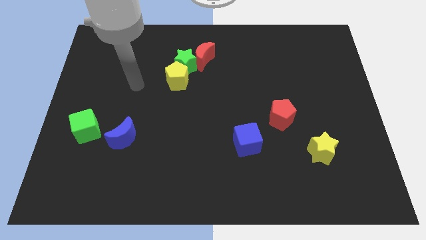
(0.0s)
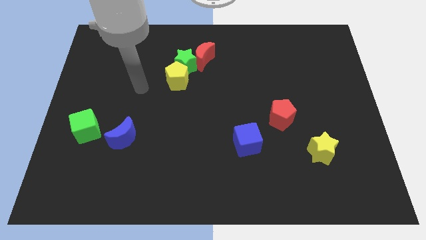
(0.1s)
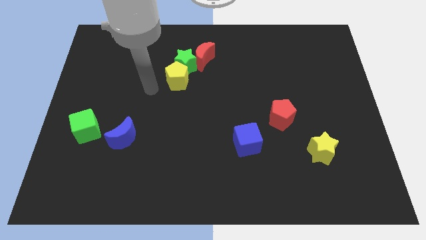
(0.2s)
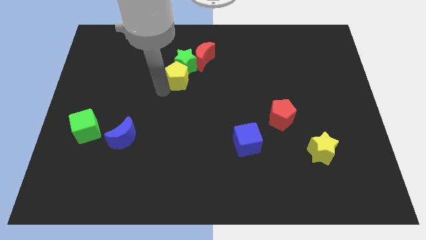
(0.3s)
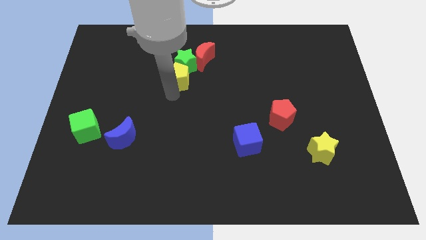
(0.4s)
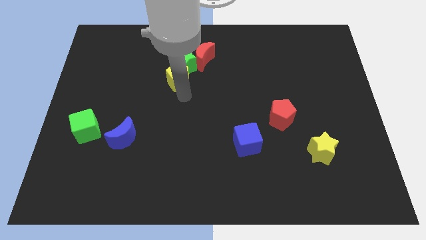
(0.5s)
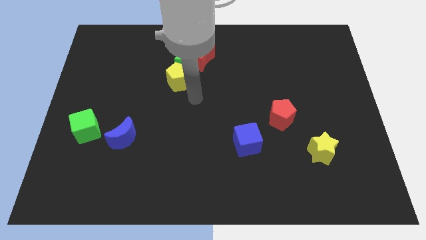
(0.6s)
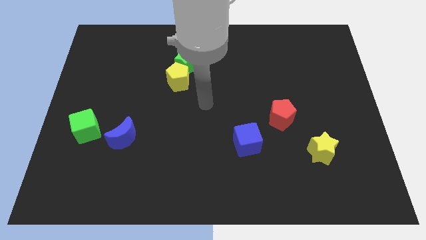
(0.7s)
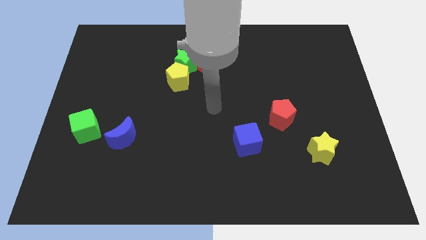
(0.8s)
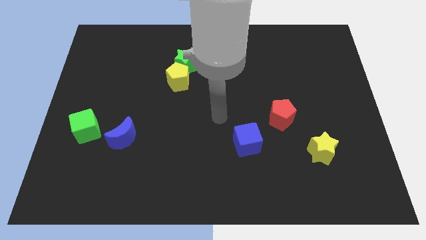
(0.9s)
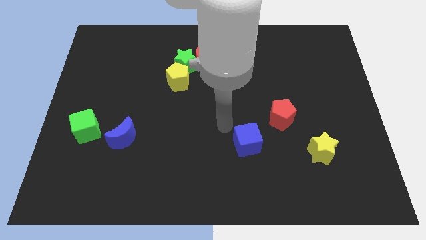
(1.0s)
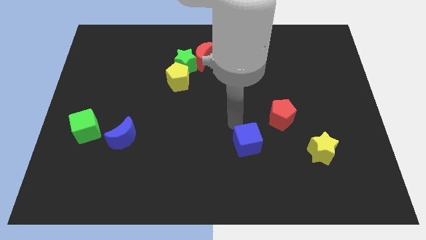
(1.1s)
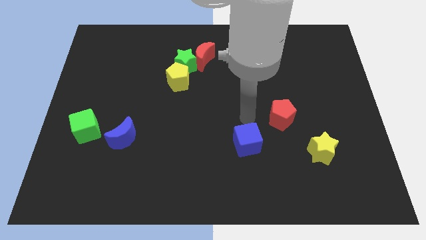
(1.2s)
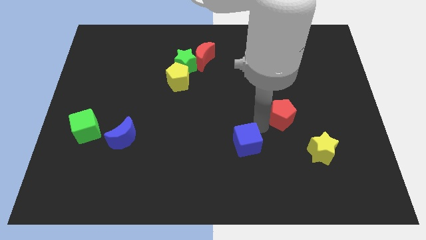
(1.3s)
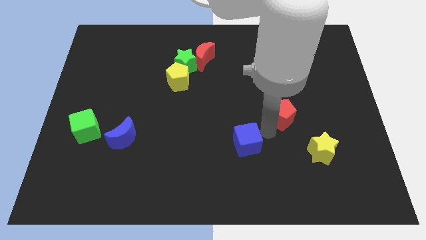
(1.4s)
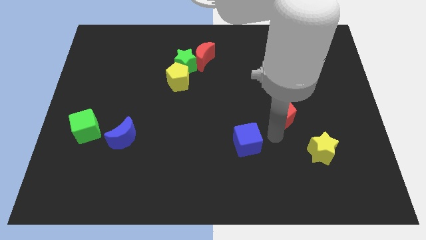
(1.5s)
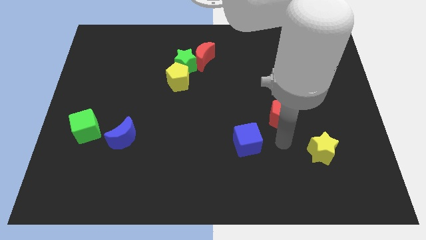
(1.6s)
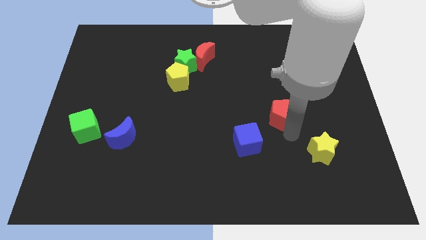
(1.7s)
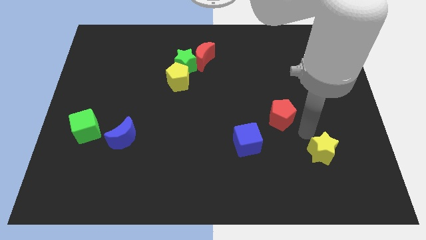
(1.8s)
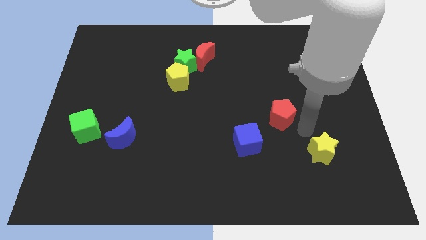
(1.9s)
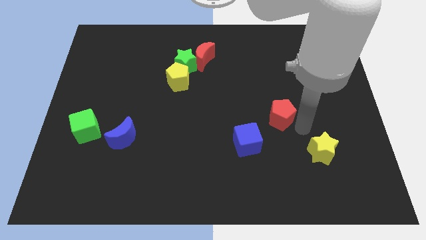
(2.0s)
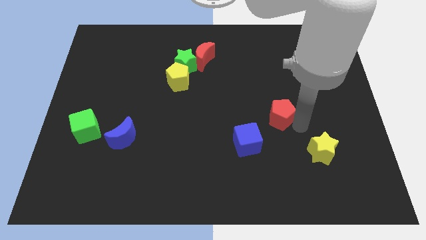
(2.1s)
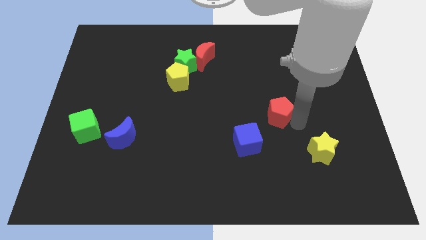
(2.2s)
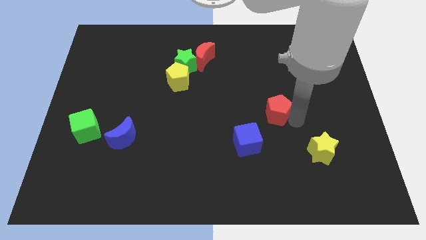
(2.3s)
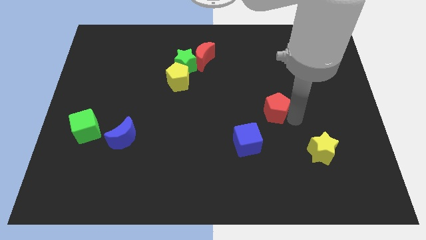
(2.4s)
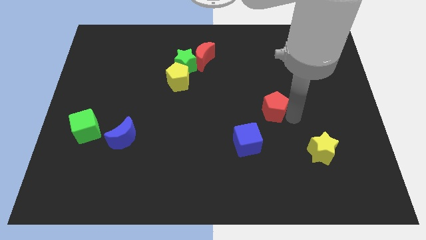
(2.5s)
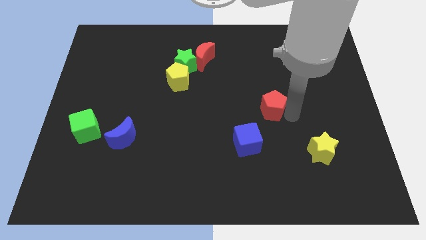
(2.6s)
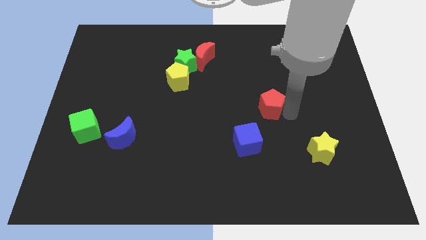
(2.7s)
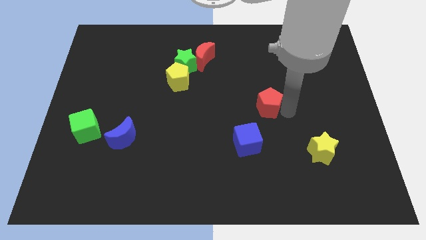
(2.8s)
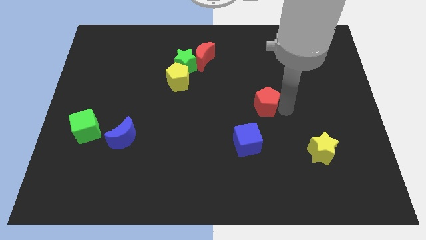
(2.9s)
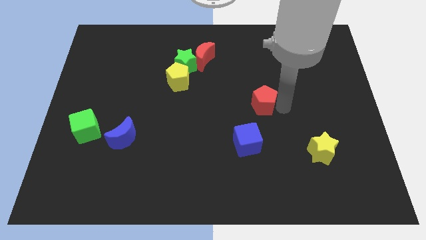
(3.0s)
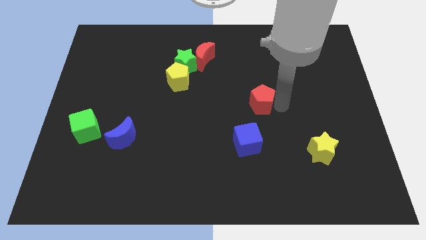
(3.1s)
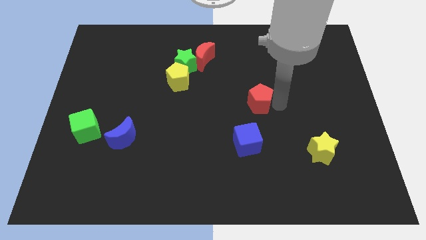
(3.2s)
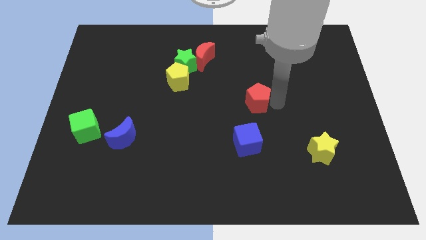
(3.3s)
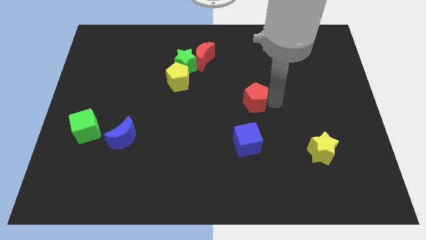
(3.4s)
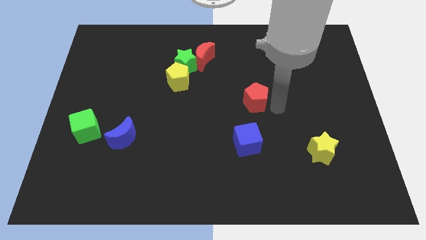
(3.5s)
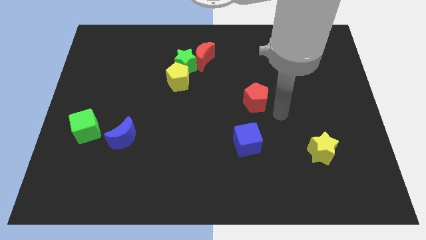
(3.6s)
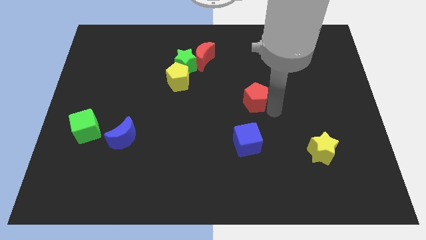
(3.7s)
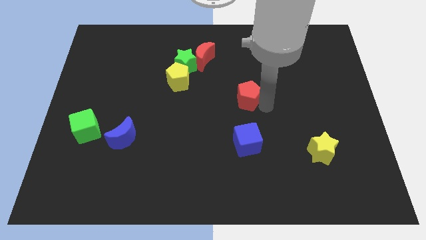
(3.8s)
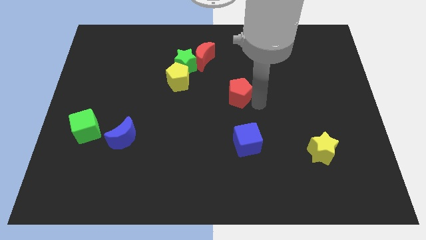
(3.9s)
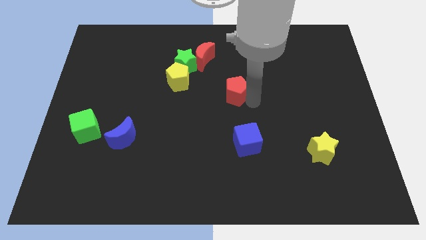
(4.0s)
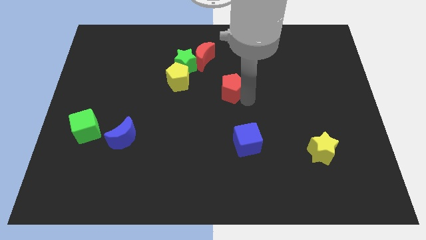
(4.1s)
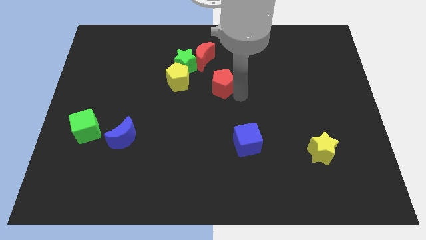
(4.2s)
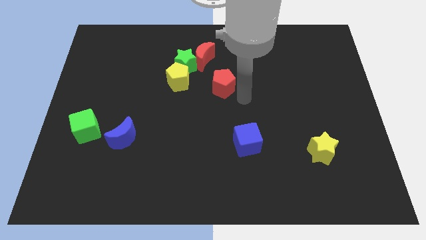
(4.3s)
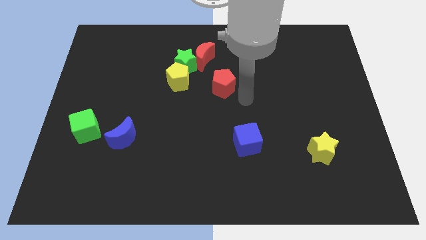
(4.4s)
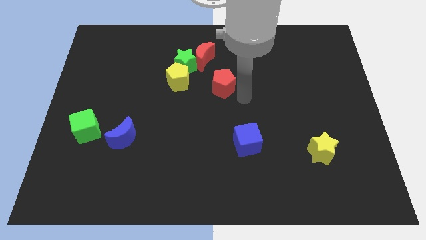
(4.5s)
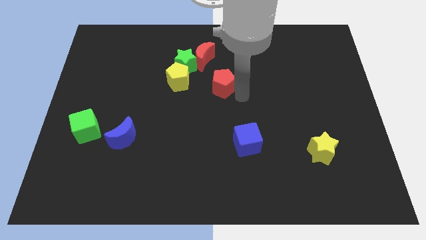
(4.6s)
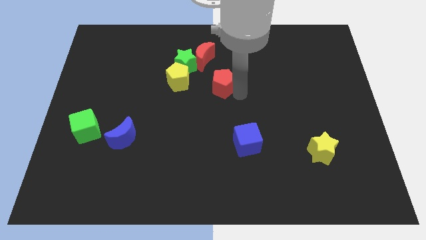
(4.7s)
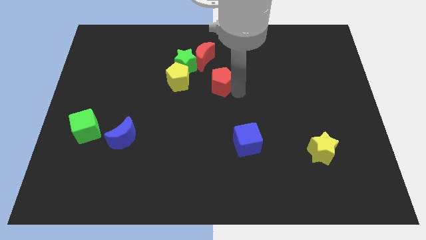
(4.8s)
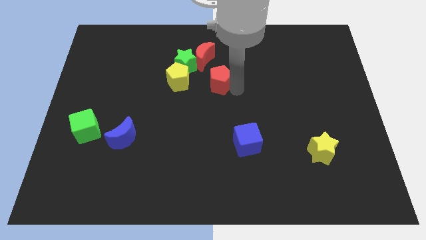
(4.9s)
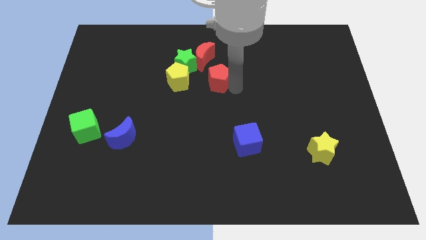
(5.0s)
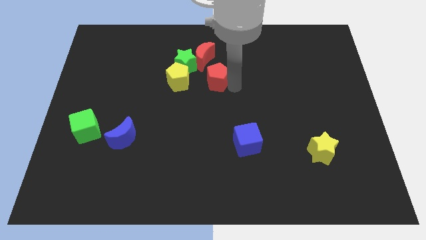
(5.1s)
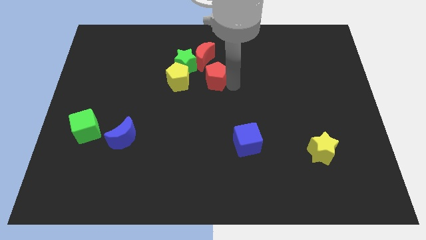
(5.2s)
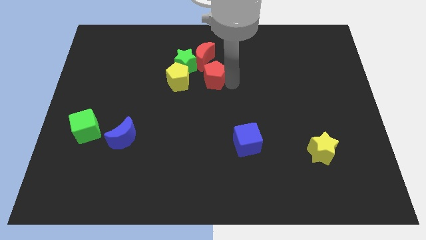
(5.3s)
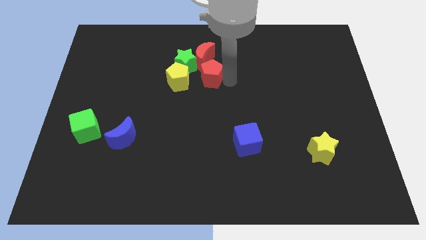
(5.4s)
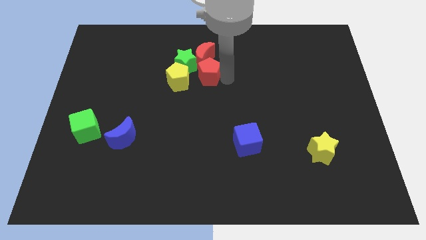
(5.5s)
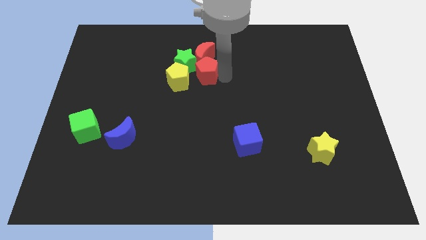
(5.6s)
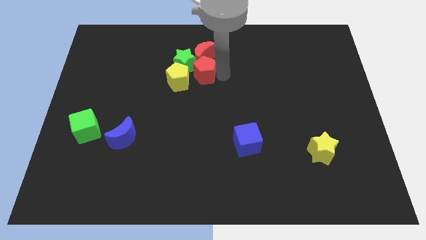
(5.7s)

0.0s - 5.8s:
slide the red pentagon next to the green star
